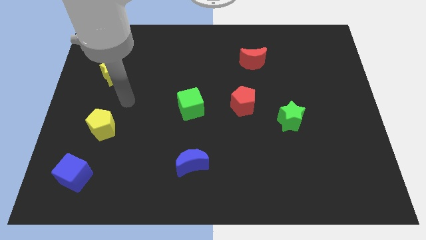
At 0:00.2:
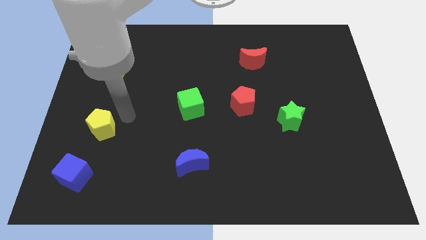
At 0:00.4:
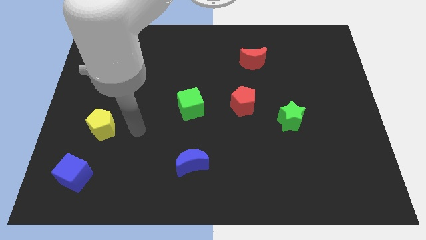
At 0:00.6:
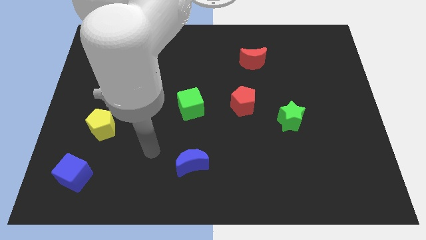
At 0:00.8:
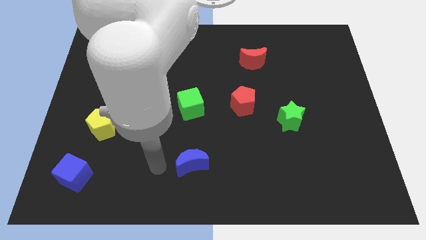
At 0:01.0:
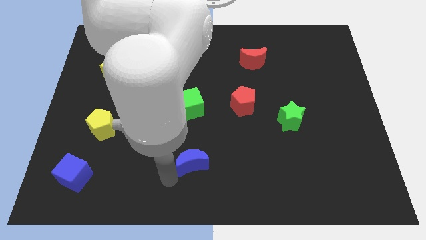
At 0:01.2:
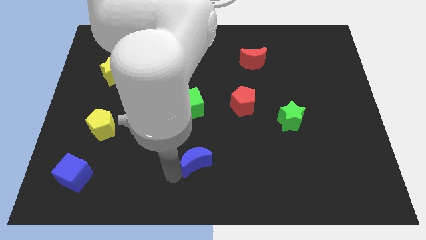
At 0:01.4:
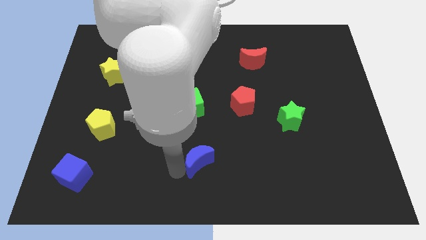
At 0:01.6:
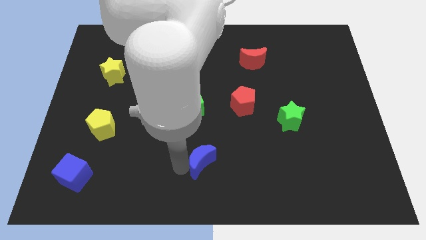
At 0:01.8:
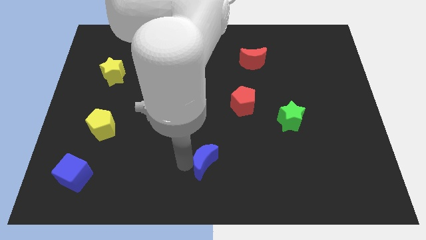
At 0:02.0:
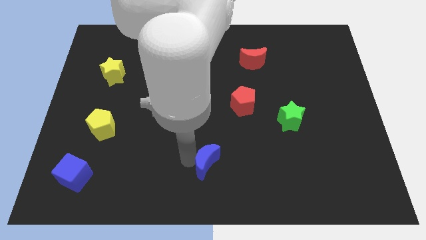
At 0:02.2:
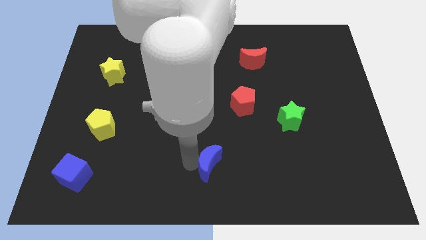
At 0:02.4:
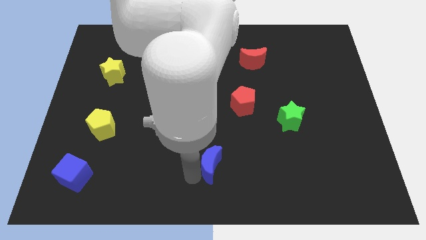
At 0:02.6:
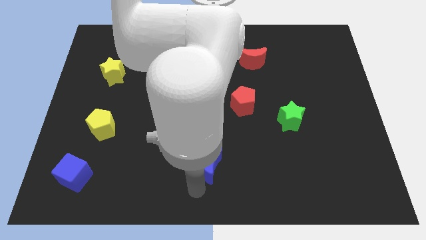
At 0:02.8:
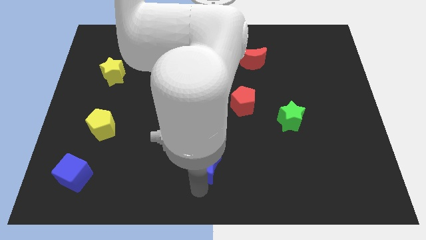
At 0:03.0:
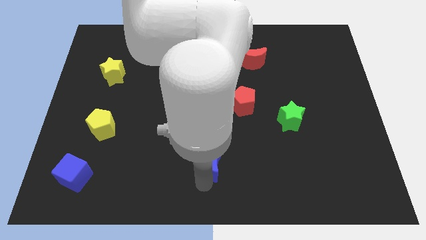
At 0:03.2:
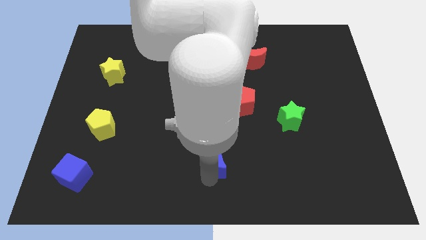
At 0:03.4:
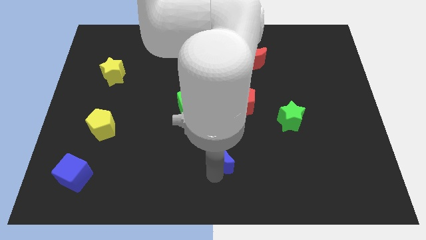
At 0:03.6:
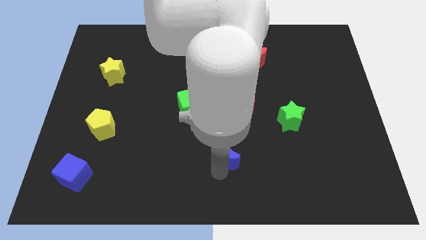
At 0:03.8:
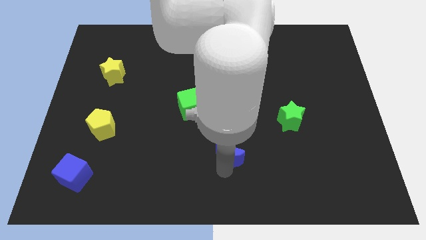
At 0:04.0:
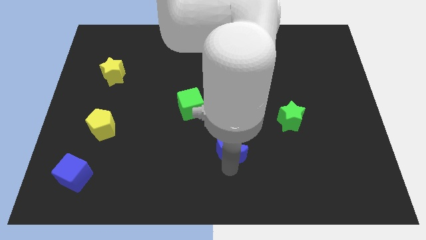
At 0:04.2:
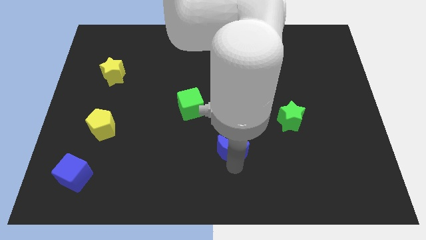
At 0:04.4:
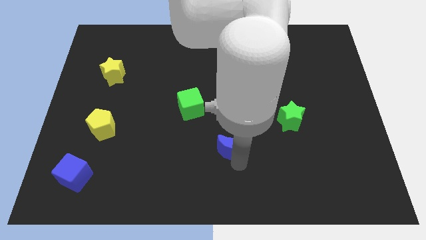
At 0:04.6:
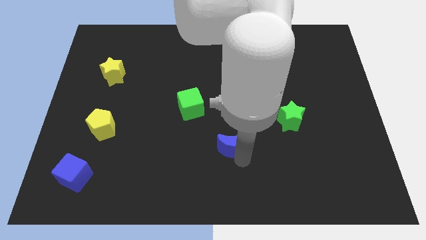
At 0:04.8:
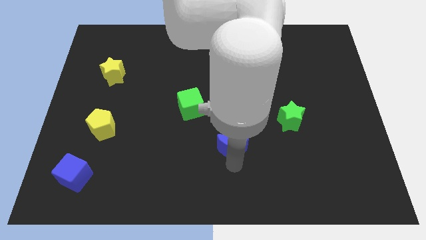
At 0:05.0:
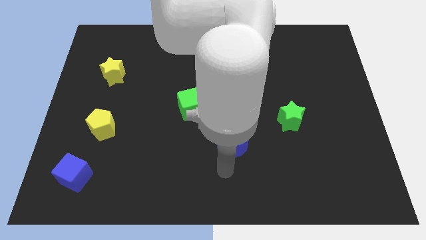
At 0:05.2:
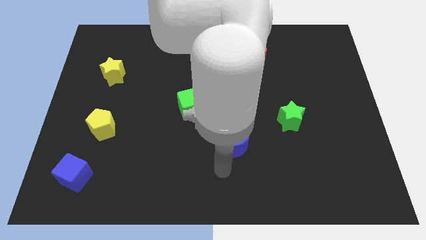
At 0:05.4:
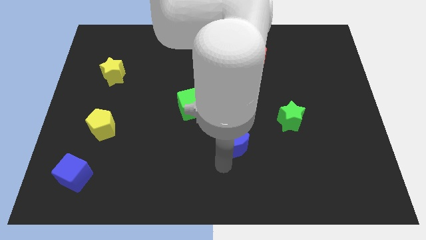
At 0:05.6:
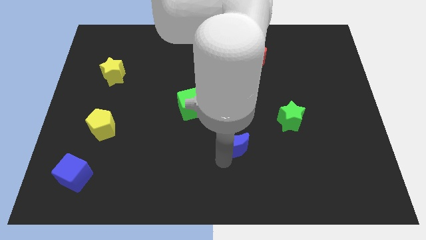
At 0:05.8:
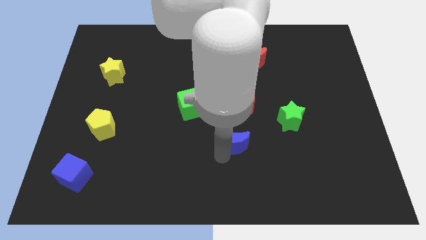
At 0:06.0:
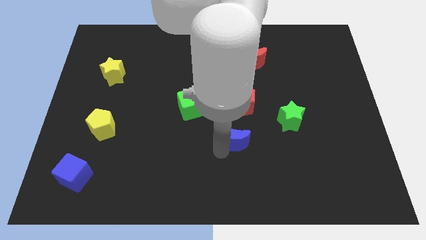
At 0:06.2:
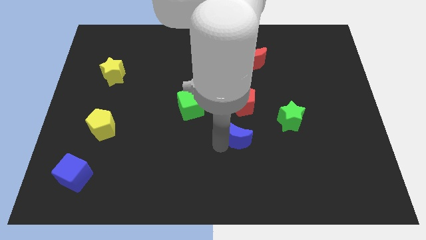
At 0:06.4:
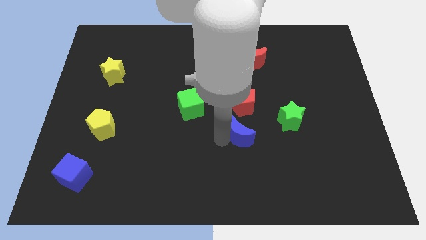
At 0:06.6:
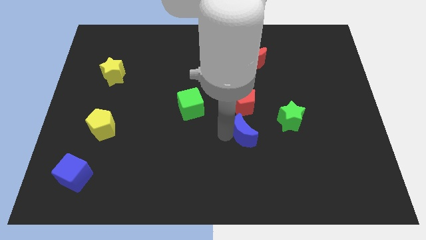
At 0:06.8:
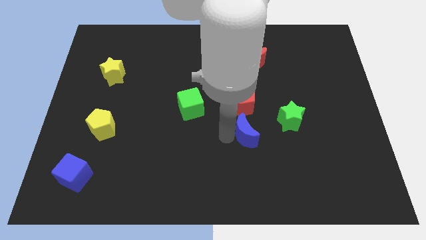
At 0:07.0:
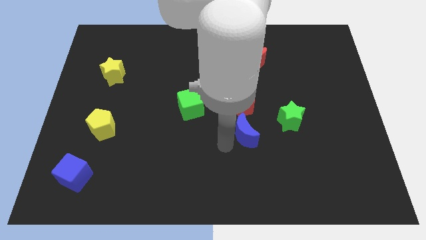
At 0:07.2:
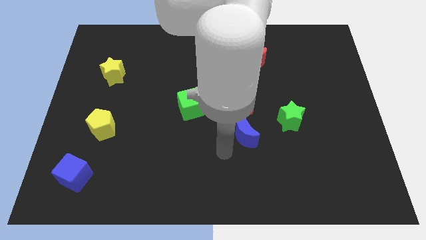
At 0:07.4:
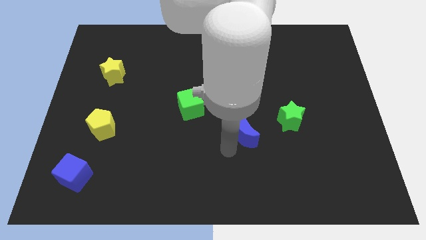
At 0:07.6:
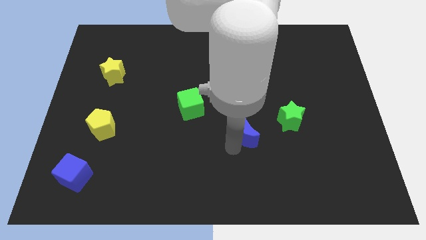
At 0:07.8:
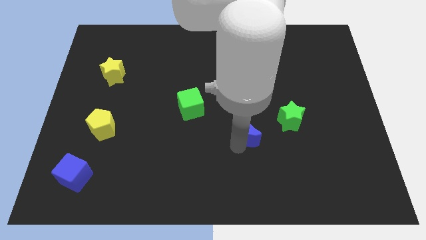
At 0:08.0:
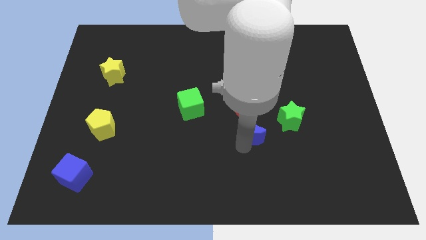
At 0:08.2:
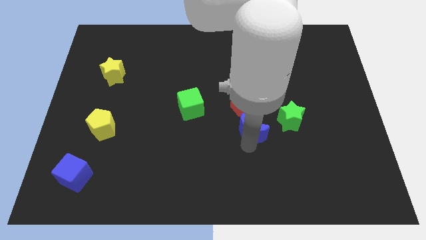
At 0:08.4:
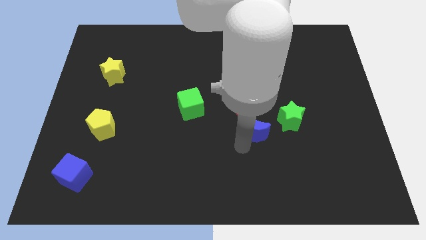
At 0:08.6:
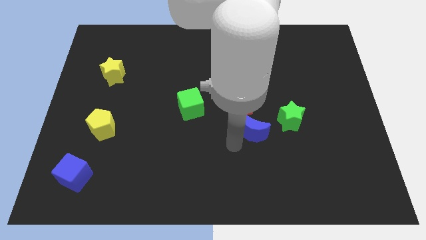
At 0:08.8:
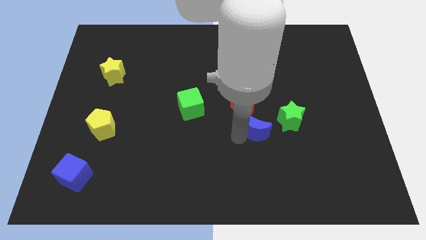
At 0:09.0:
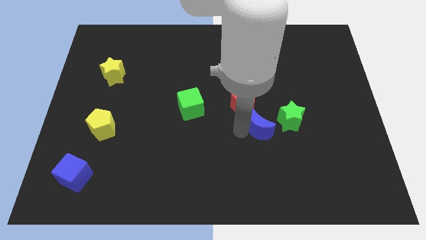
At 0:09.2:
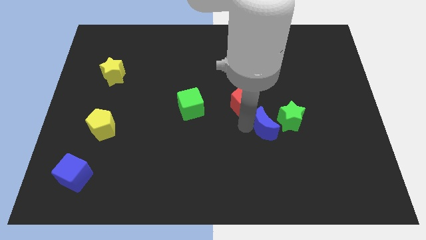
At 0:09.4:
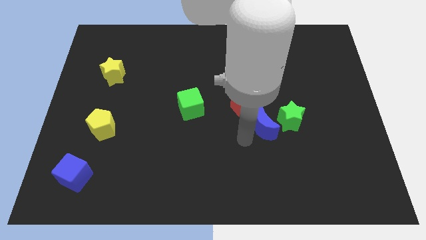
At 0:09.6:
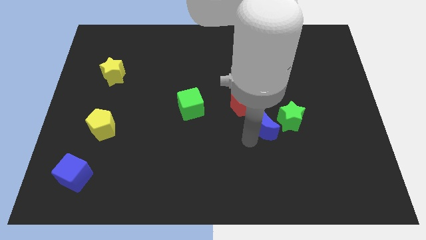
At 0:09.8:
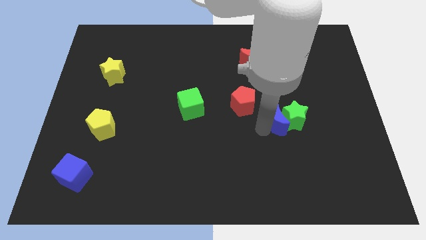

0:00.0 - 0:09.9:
move the blue moon right of the red pentagon

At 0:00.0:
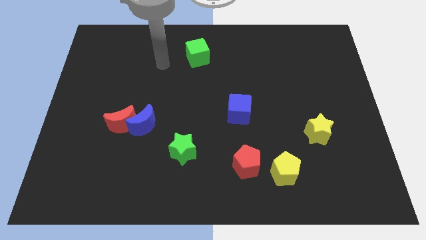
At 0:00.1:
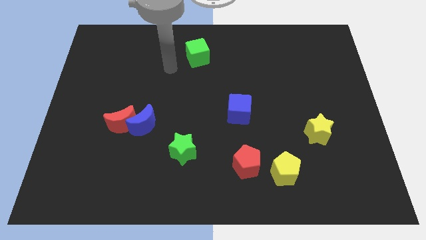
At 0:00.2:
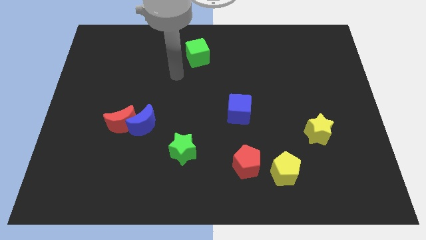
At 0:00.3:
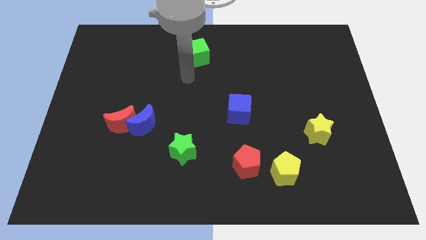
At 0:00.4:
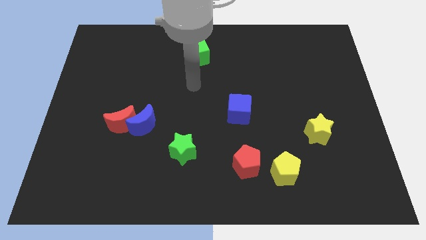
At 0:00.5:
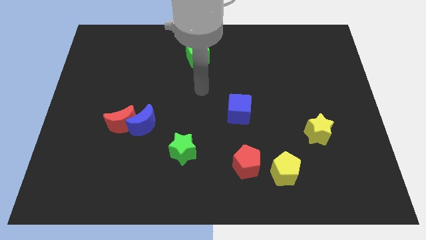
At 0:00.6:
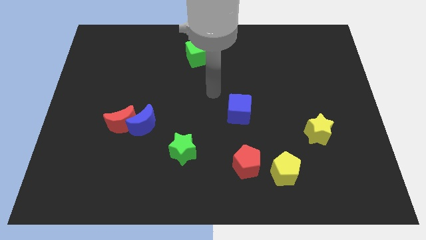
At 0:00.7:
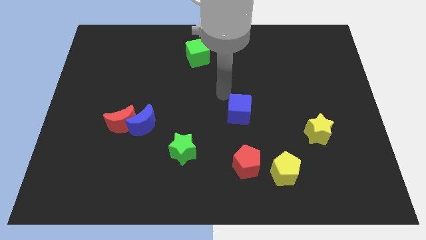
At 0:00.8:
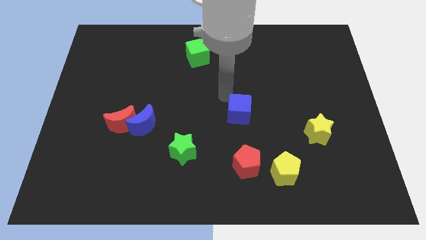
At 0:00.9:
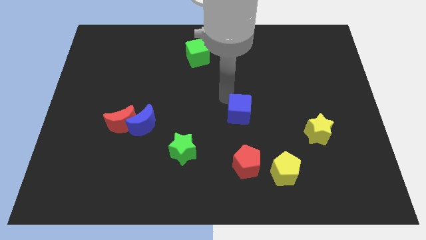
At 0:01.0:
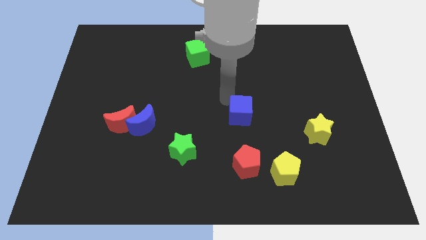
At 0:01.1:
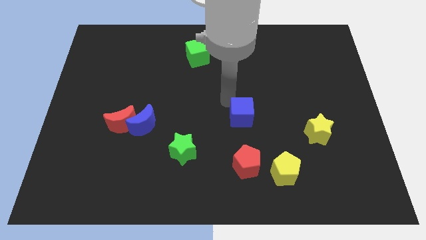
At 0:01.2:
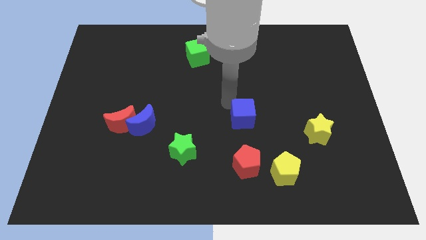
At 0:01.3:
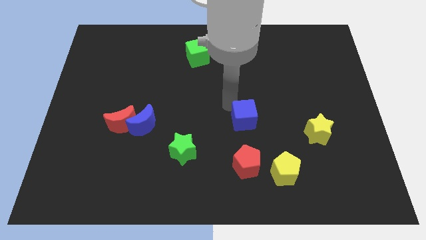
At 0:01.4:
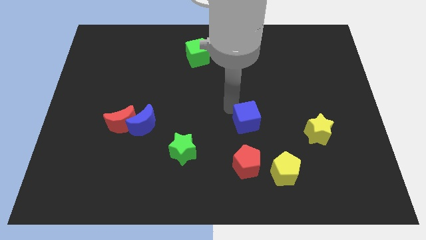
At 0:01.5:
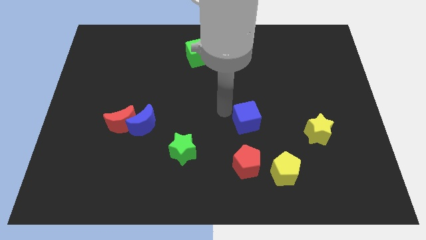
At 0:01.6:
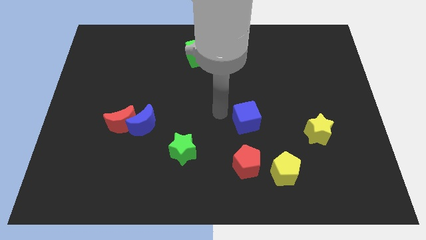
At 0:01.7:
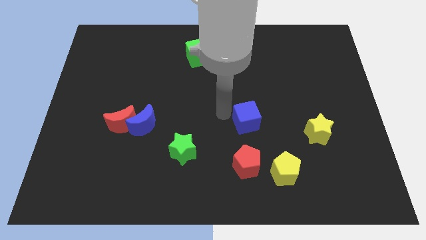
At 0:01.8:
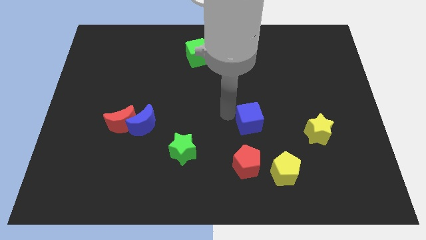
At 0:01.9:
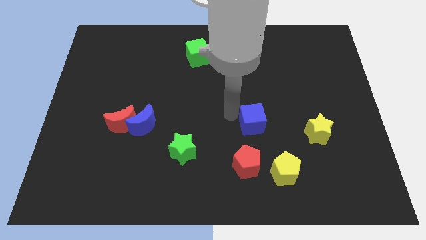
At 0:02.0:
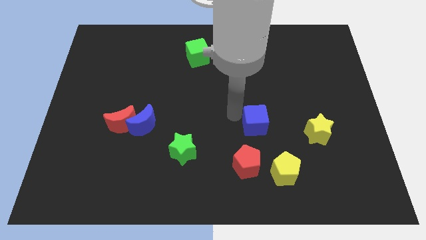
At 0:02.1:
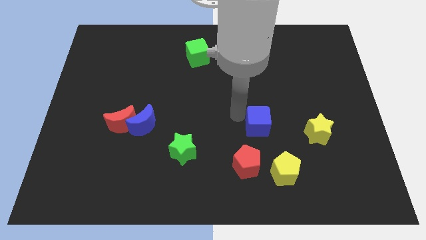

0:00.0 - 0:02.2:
push the blue cube to the top of the yellow pentagon
